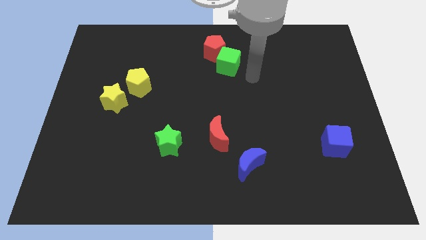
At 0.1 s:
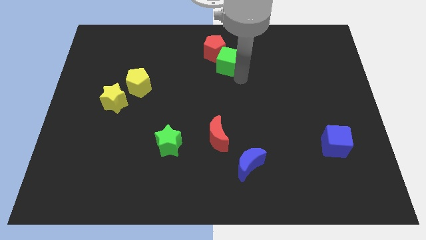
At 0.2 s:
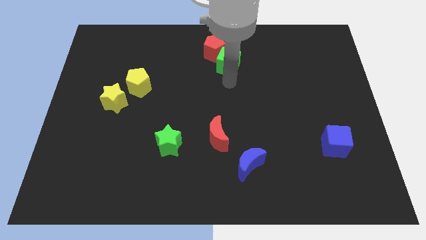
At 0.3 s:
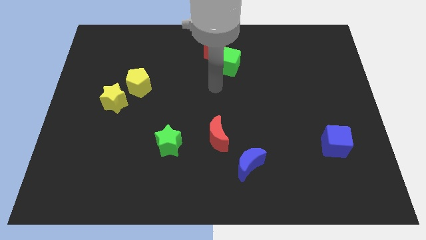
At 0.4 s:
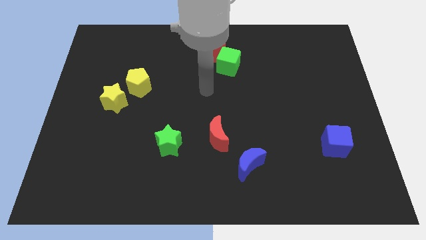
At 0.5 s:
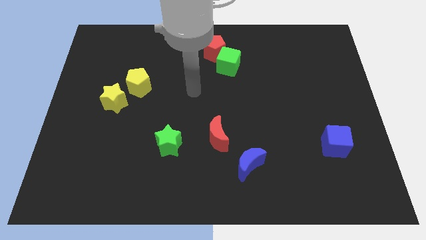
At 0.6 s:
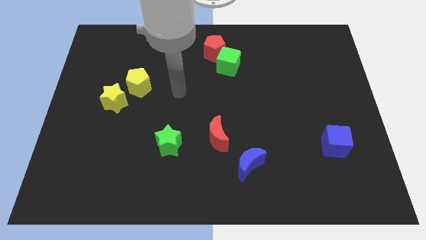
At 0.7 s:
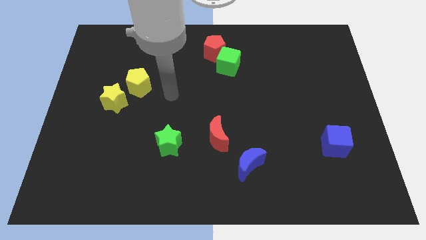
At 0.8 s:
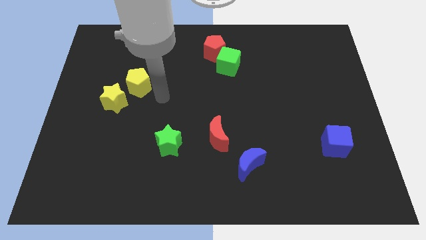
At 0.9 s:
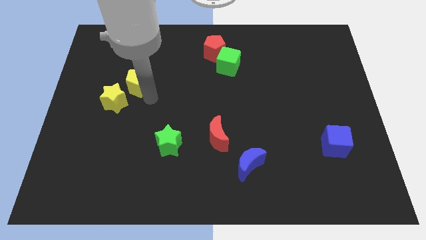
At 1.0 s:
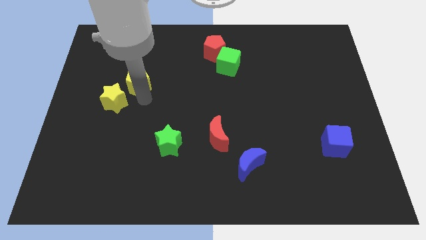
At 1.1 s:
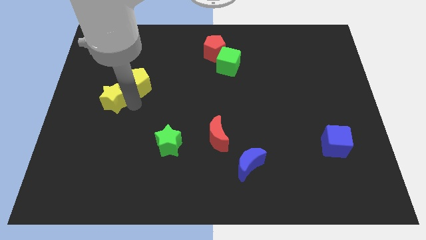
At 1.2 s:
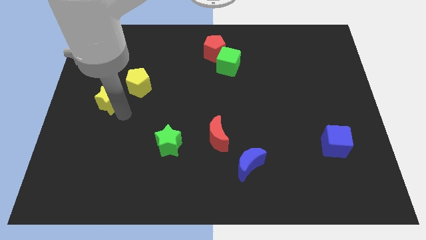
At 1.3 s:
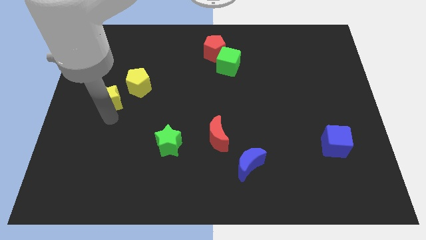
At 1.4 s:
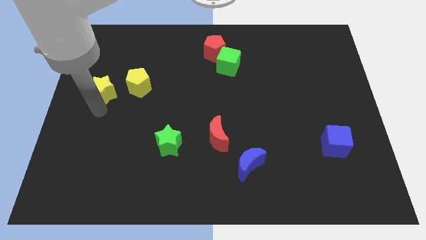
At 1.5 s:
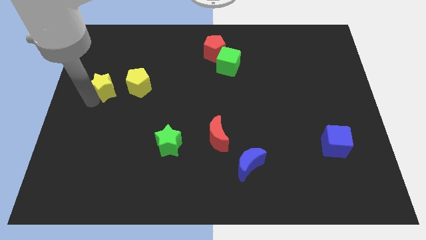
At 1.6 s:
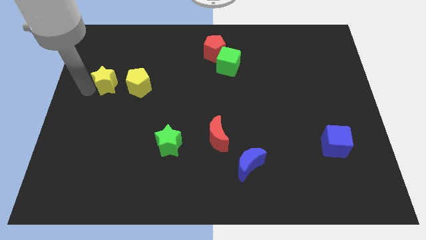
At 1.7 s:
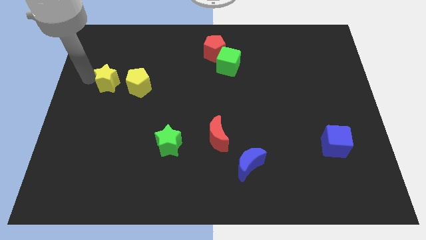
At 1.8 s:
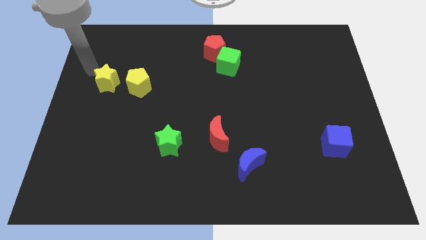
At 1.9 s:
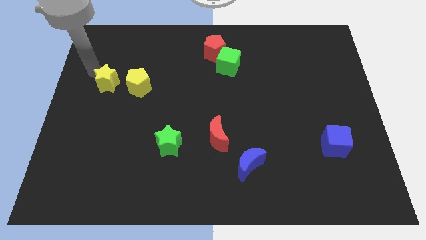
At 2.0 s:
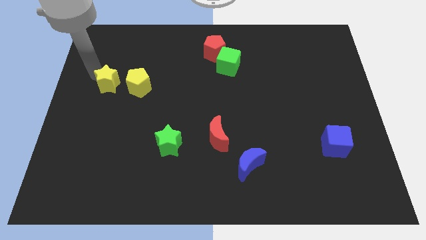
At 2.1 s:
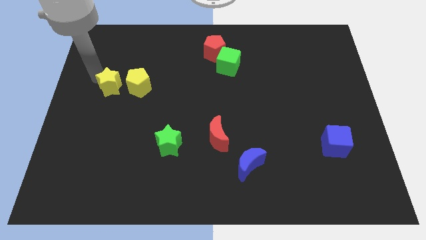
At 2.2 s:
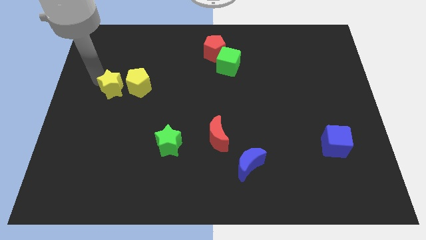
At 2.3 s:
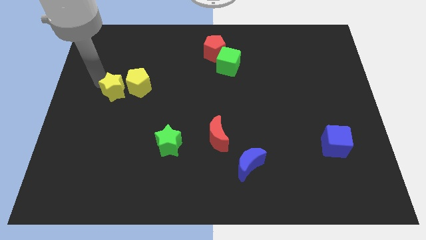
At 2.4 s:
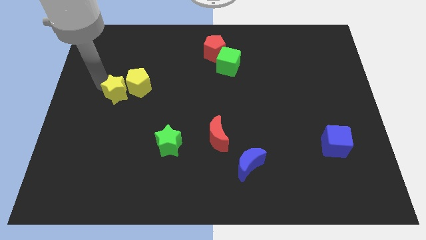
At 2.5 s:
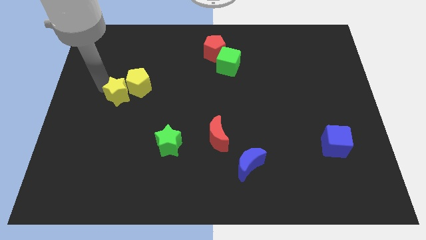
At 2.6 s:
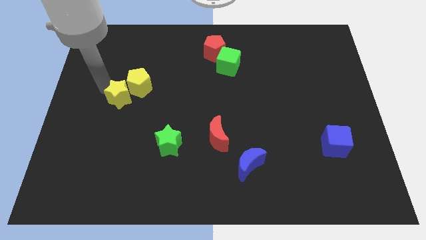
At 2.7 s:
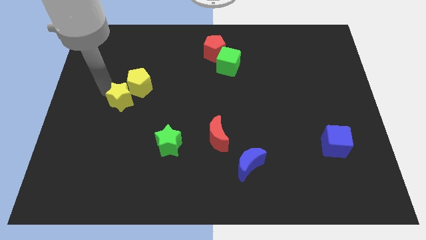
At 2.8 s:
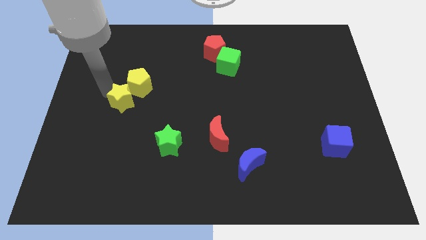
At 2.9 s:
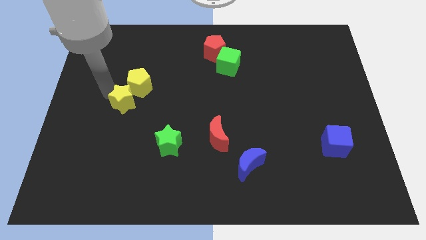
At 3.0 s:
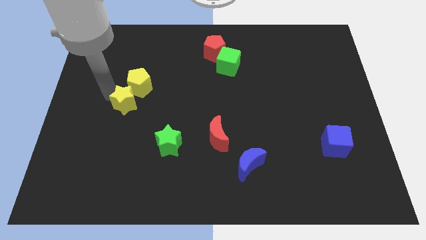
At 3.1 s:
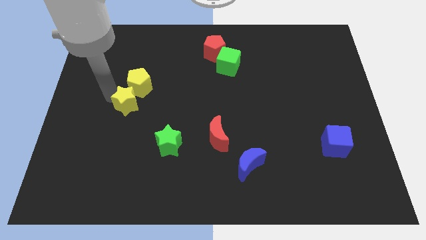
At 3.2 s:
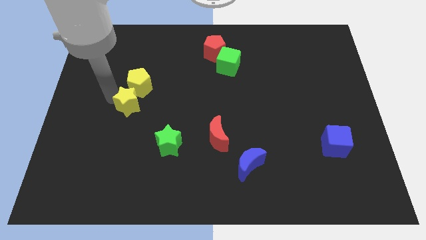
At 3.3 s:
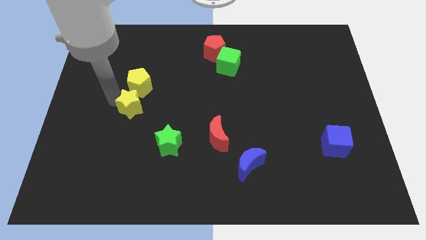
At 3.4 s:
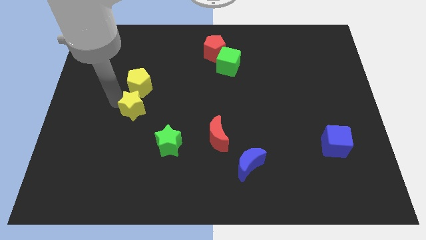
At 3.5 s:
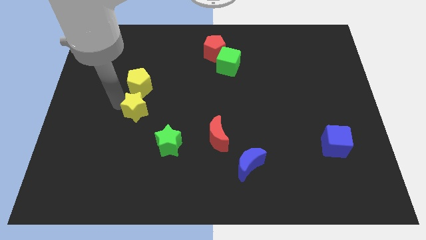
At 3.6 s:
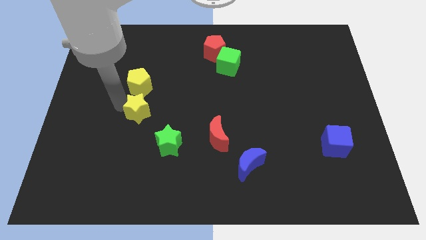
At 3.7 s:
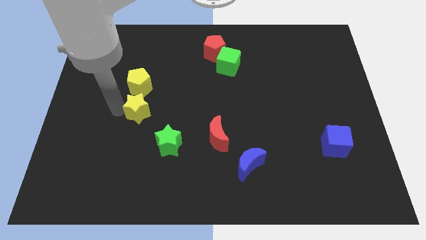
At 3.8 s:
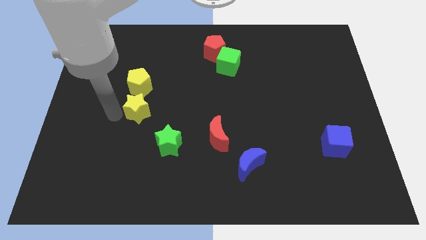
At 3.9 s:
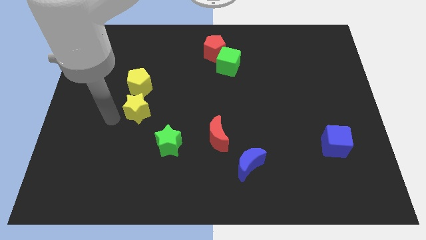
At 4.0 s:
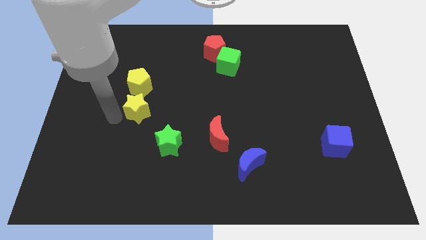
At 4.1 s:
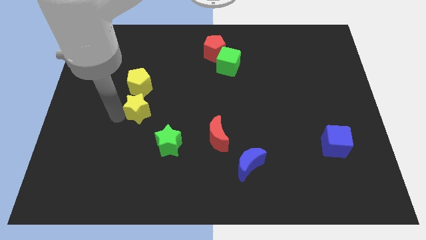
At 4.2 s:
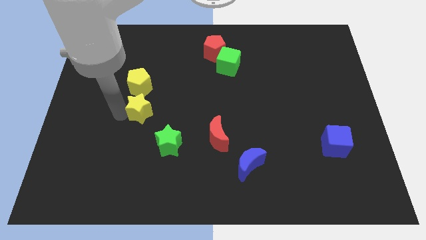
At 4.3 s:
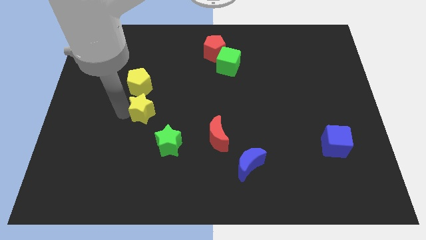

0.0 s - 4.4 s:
slide the yellow star right somewhat

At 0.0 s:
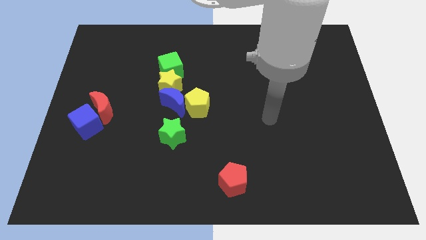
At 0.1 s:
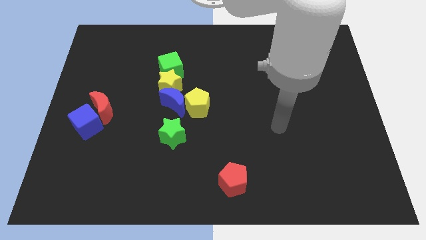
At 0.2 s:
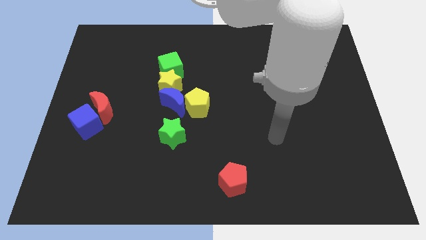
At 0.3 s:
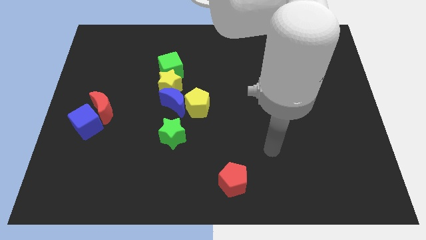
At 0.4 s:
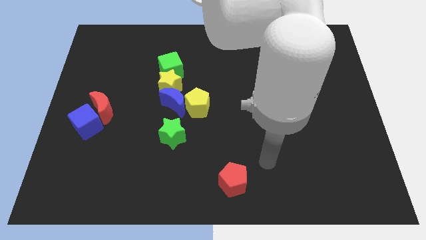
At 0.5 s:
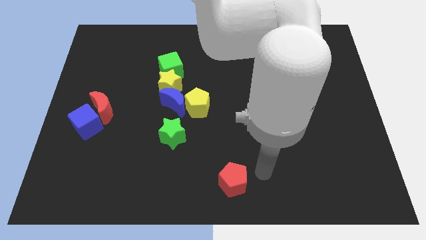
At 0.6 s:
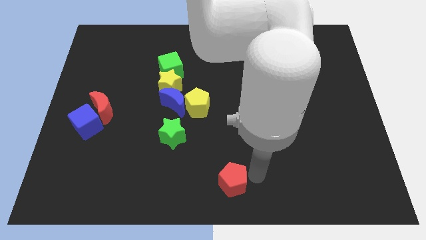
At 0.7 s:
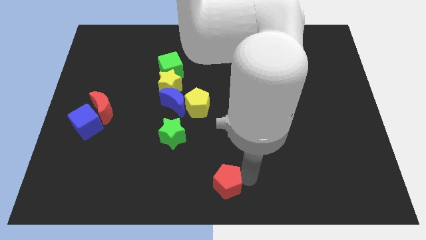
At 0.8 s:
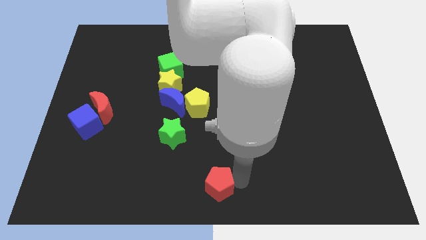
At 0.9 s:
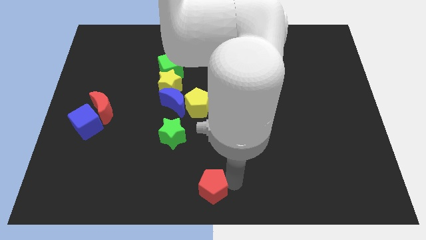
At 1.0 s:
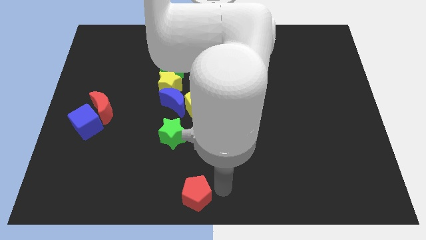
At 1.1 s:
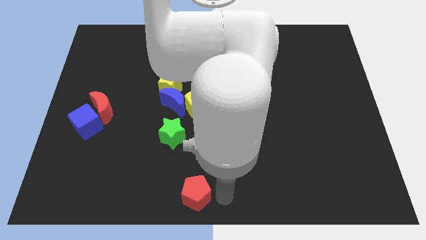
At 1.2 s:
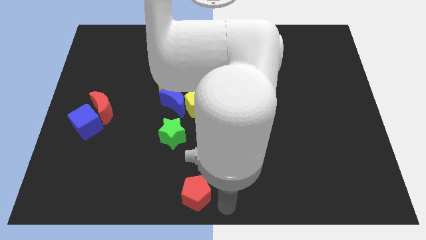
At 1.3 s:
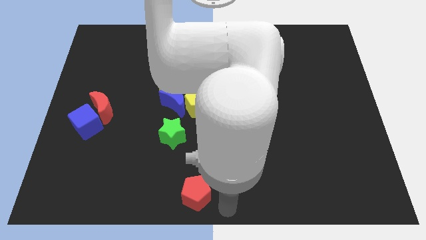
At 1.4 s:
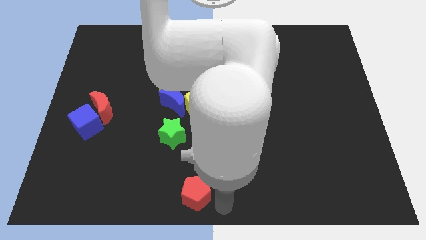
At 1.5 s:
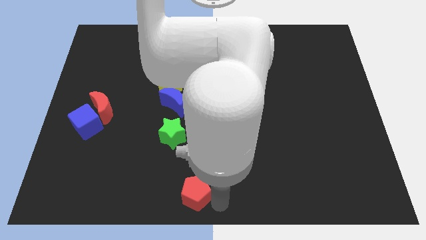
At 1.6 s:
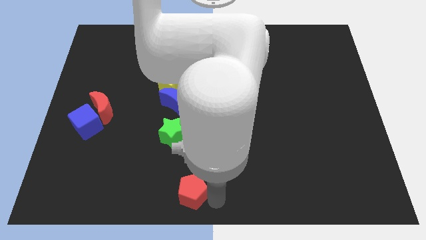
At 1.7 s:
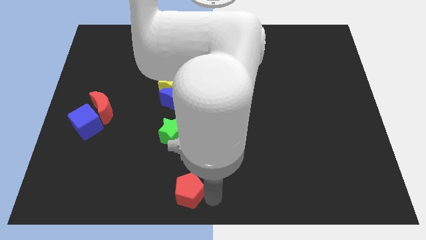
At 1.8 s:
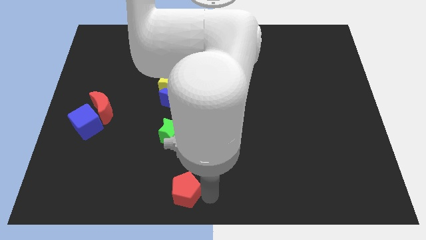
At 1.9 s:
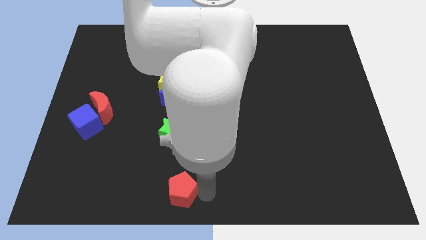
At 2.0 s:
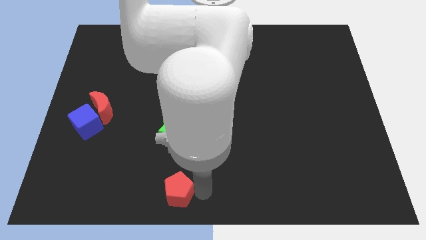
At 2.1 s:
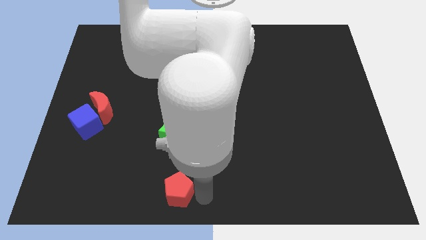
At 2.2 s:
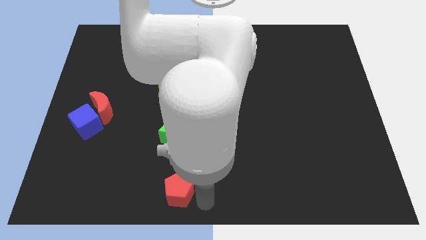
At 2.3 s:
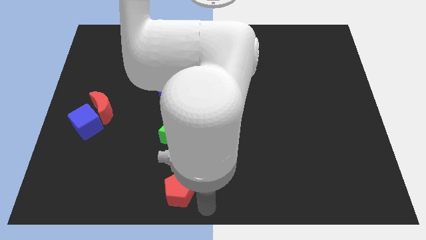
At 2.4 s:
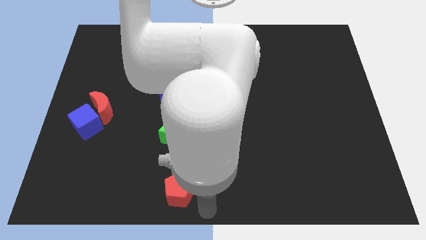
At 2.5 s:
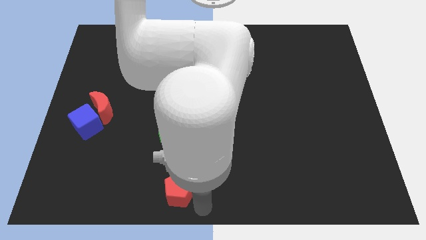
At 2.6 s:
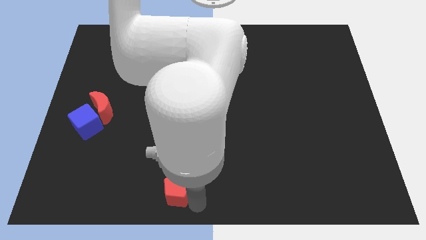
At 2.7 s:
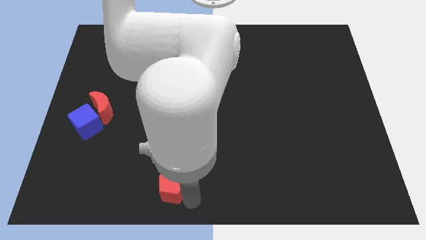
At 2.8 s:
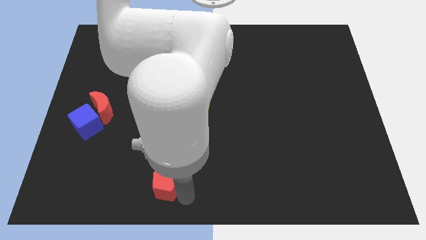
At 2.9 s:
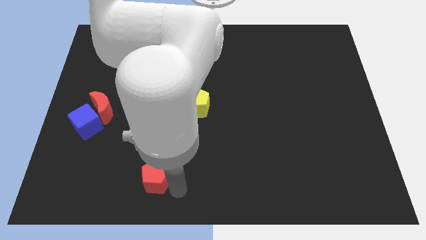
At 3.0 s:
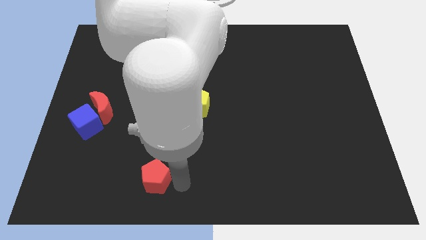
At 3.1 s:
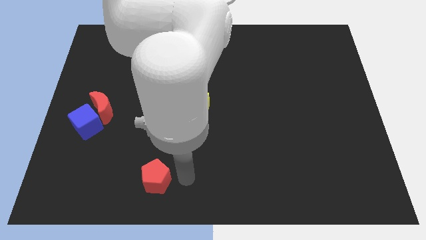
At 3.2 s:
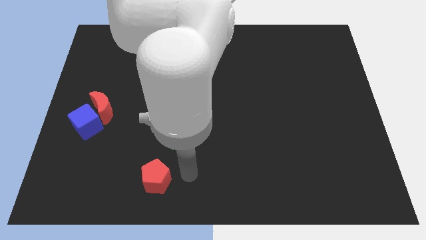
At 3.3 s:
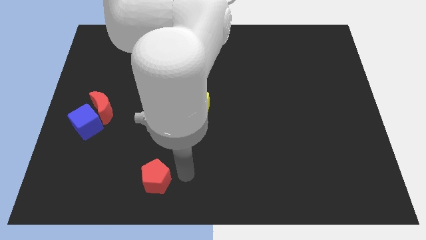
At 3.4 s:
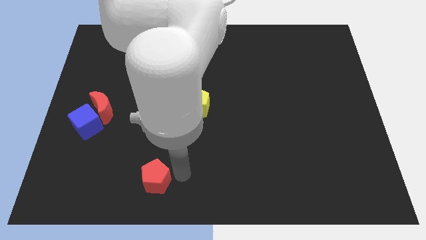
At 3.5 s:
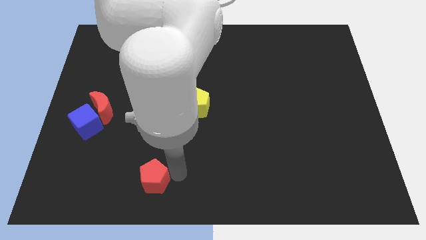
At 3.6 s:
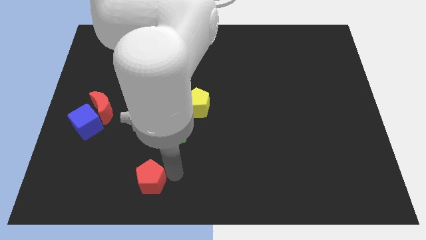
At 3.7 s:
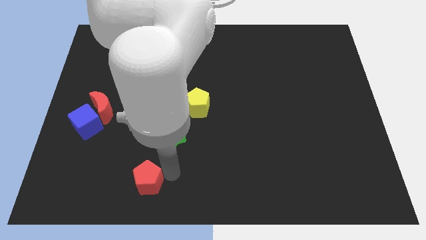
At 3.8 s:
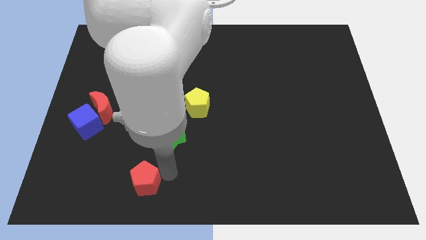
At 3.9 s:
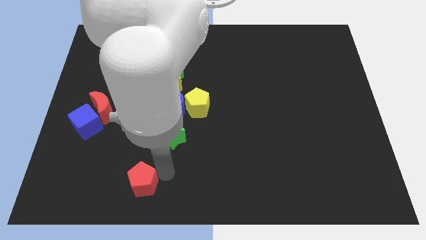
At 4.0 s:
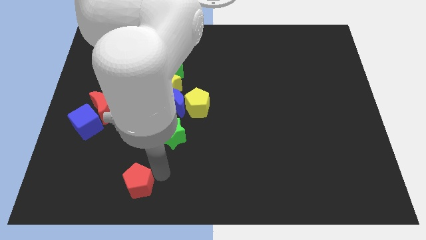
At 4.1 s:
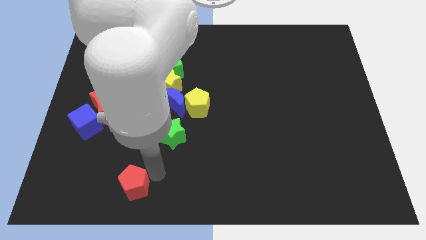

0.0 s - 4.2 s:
move the red pentagon to the left
